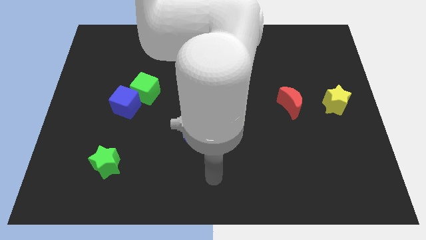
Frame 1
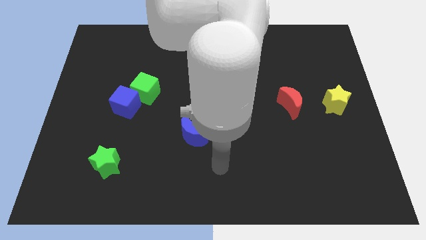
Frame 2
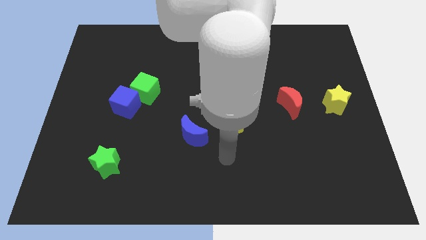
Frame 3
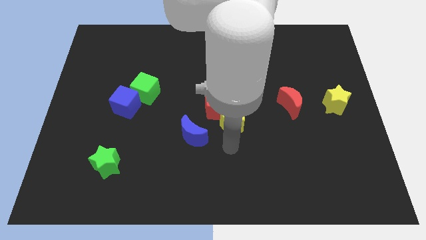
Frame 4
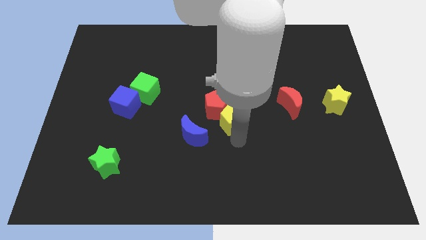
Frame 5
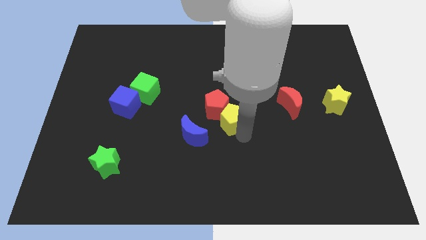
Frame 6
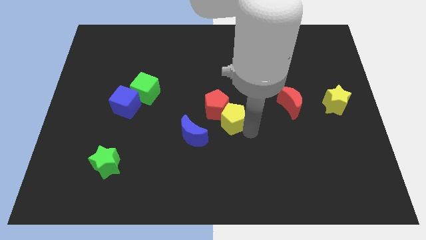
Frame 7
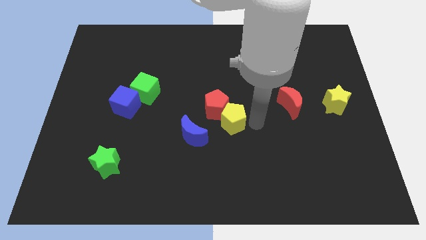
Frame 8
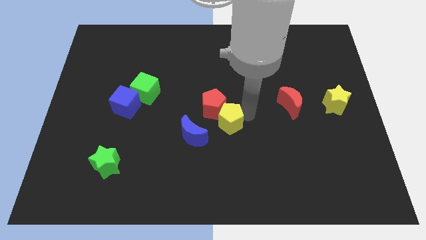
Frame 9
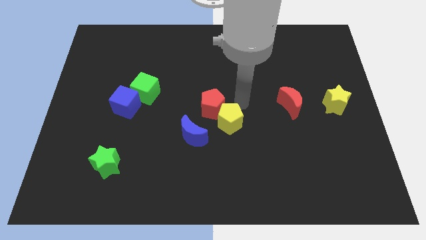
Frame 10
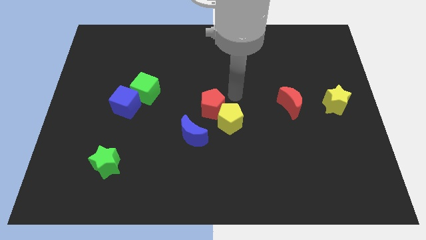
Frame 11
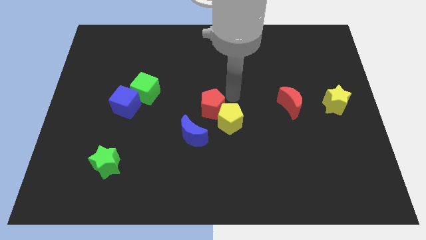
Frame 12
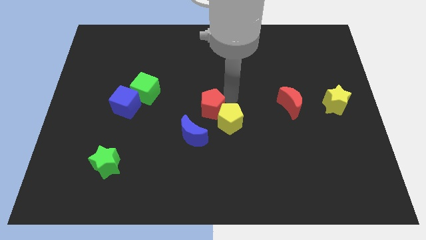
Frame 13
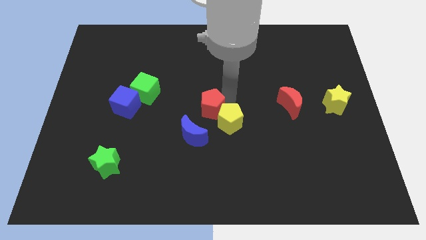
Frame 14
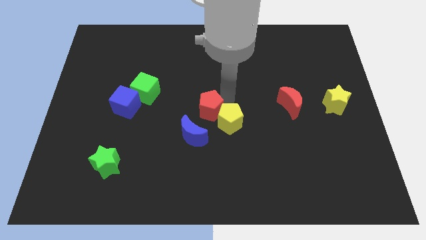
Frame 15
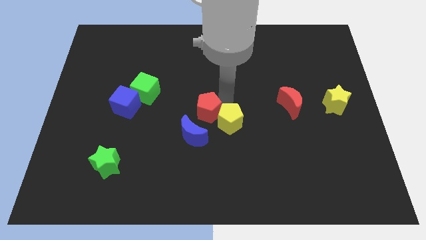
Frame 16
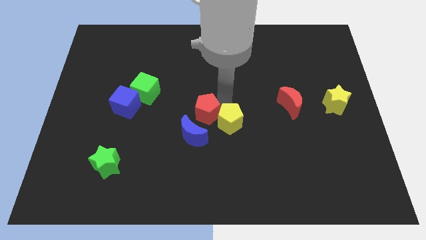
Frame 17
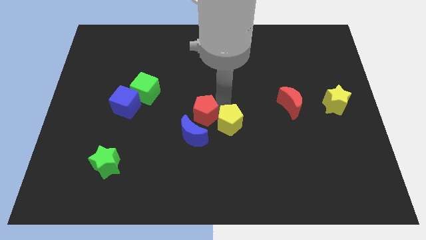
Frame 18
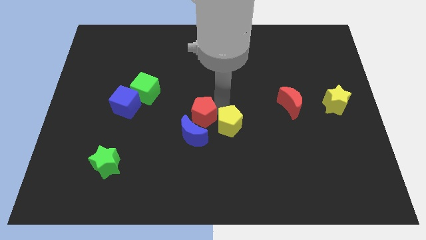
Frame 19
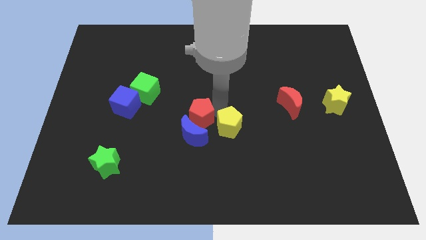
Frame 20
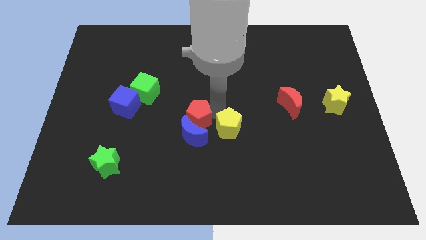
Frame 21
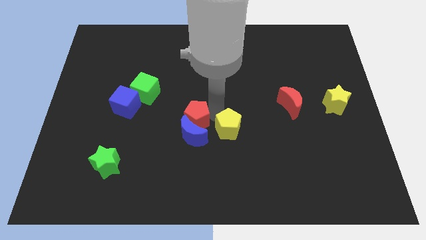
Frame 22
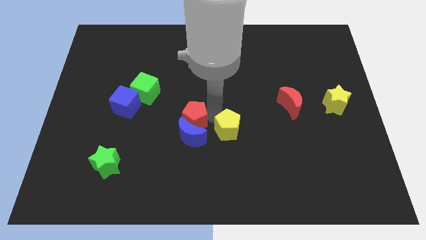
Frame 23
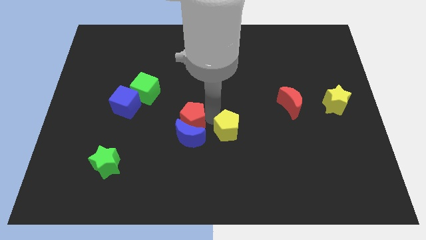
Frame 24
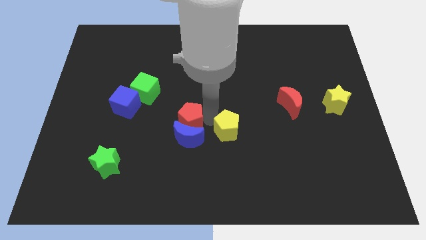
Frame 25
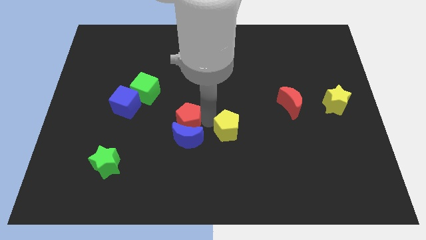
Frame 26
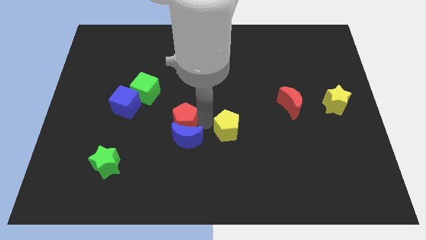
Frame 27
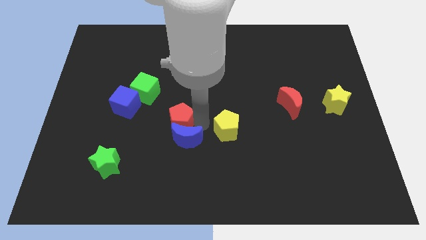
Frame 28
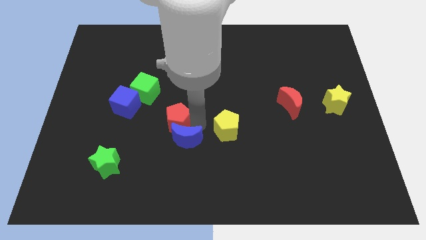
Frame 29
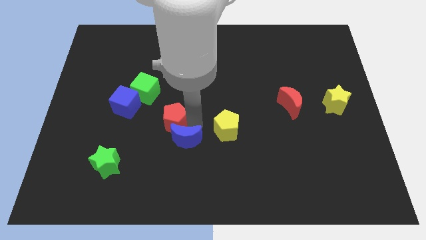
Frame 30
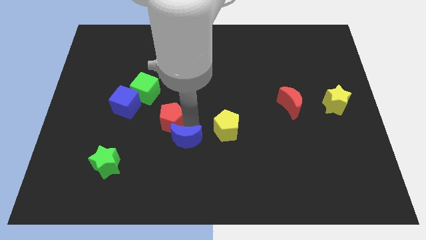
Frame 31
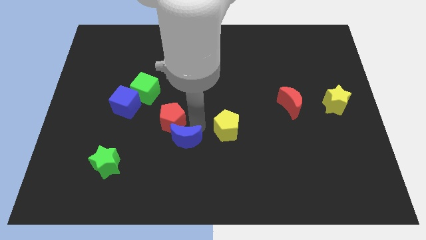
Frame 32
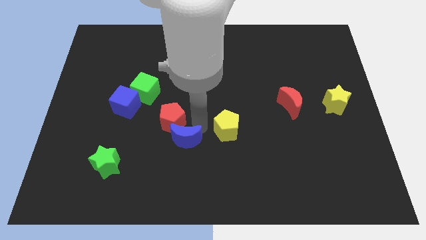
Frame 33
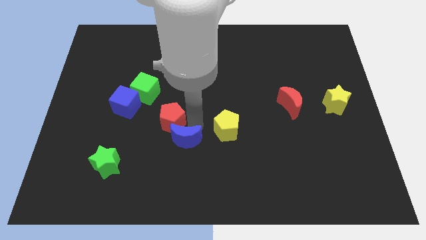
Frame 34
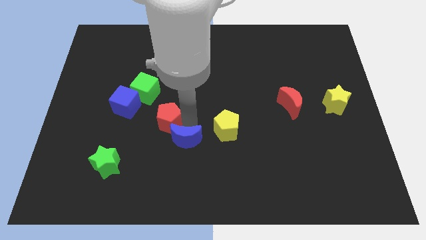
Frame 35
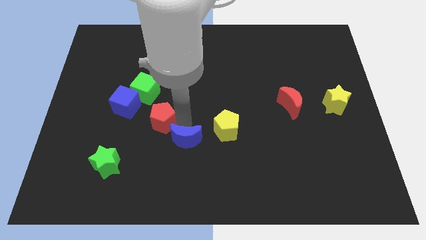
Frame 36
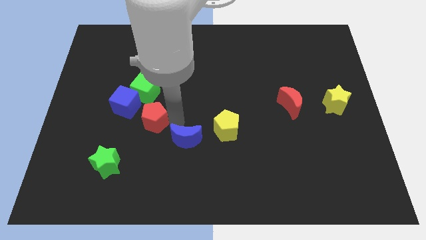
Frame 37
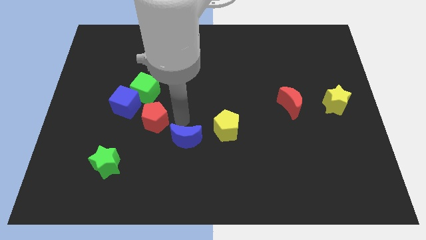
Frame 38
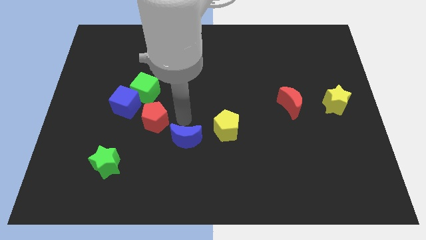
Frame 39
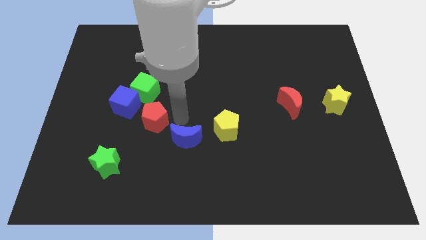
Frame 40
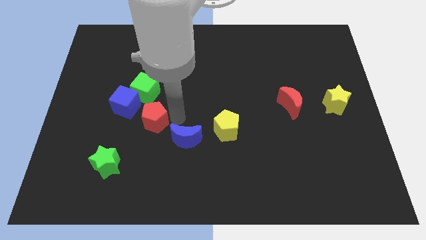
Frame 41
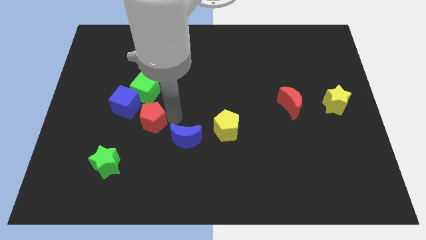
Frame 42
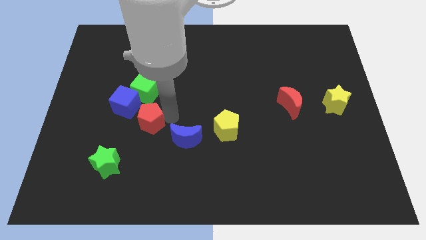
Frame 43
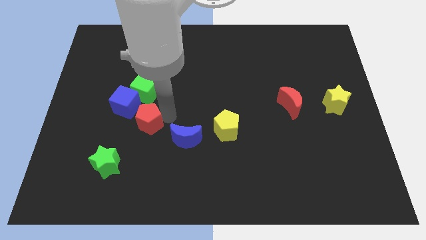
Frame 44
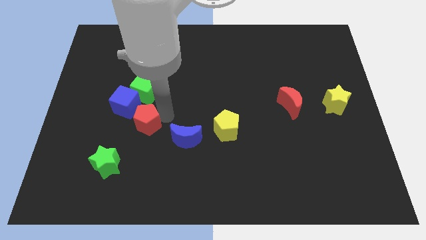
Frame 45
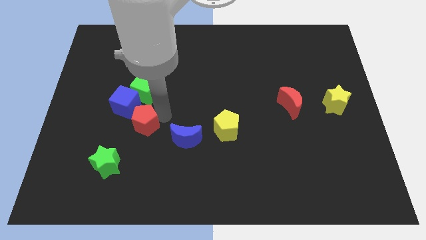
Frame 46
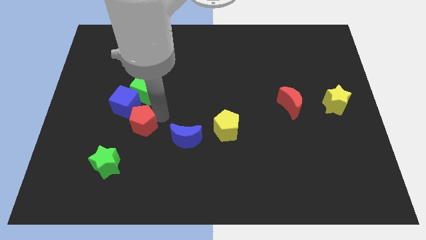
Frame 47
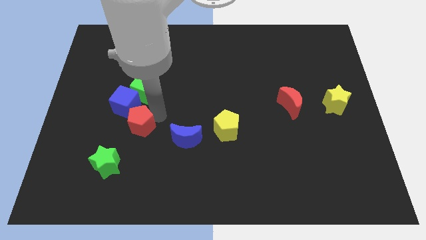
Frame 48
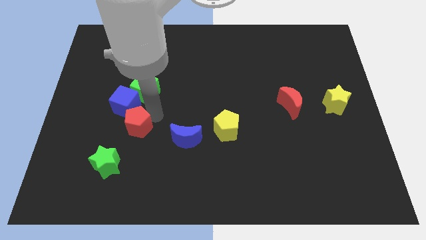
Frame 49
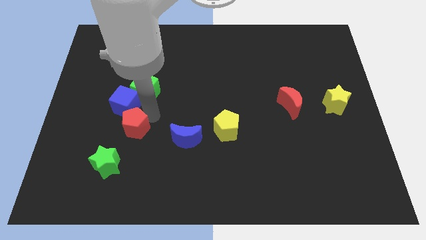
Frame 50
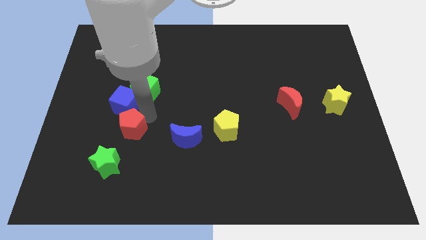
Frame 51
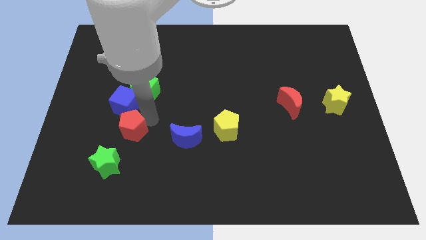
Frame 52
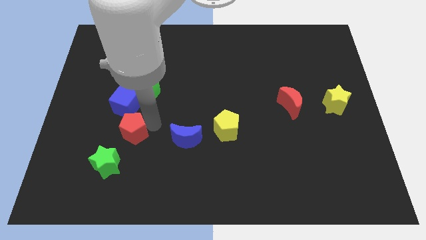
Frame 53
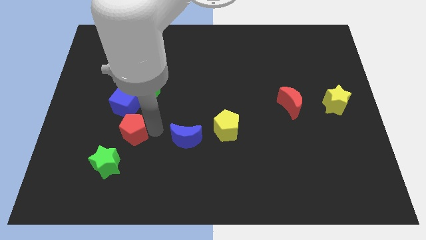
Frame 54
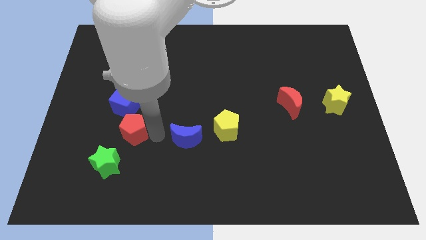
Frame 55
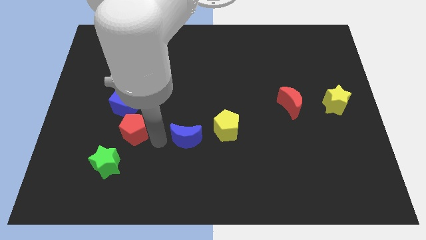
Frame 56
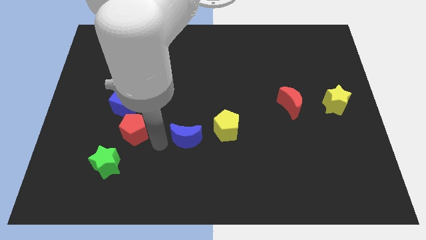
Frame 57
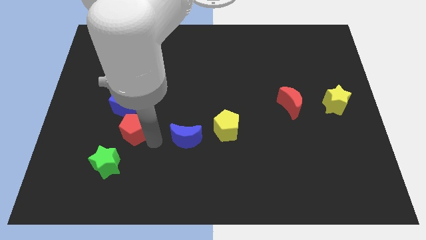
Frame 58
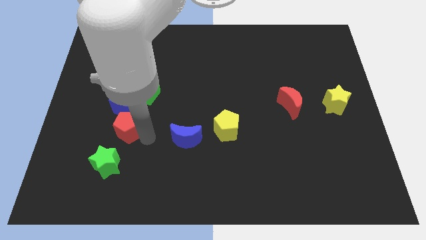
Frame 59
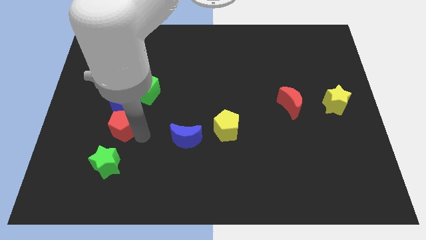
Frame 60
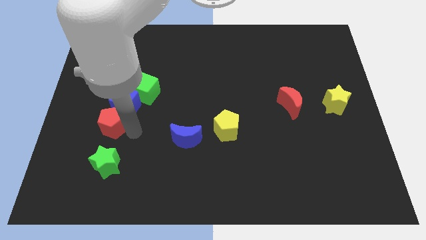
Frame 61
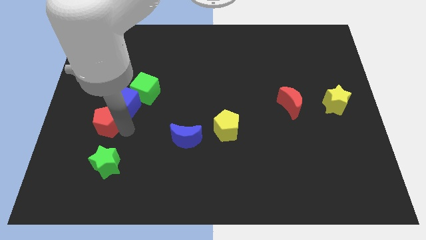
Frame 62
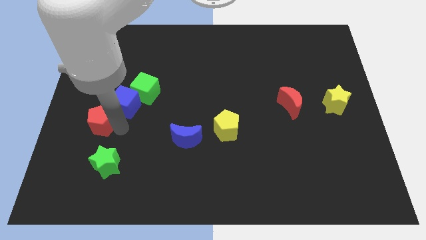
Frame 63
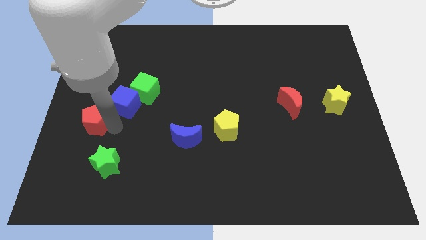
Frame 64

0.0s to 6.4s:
put the red pentagon to the left side

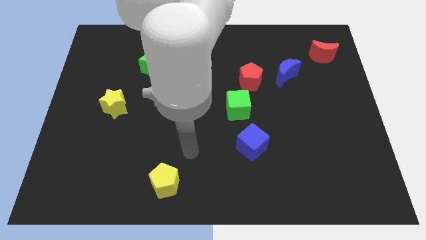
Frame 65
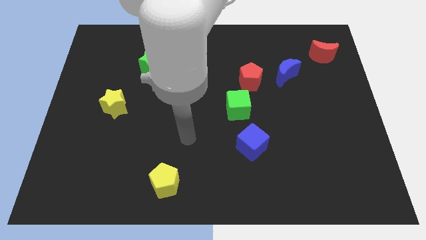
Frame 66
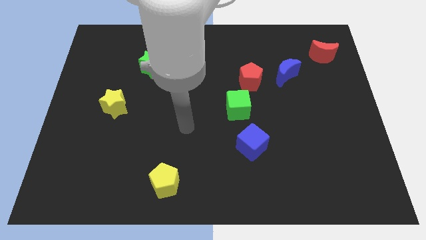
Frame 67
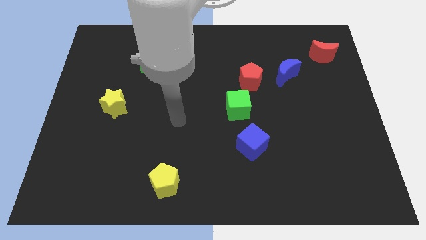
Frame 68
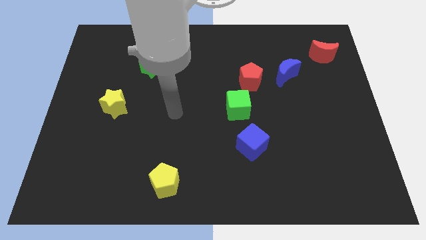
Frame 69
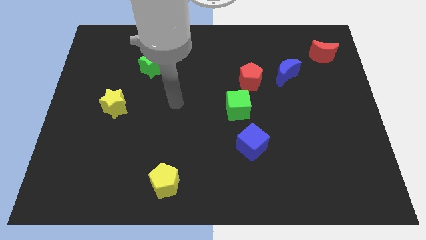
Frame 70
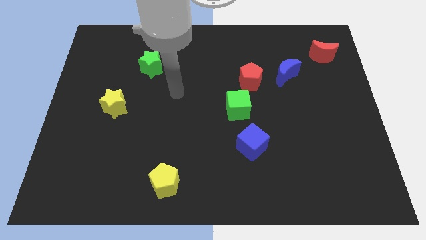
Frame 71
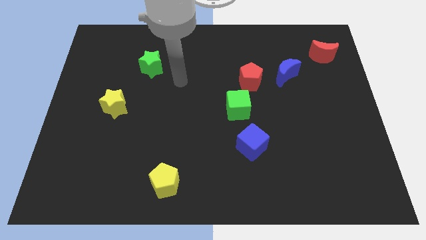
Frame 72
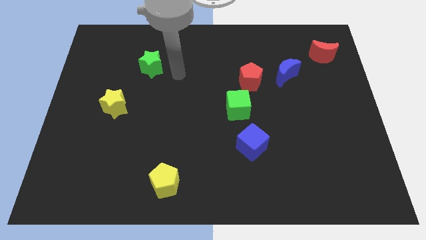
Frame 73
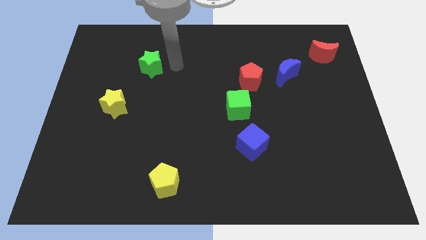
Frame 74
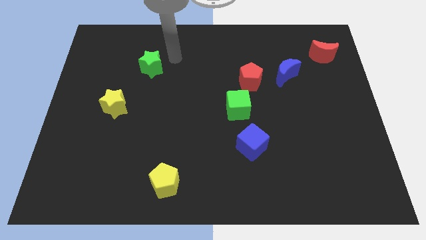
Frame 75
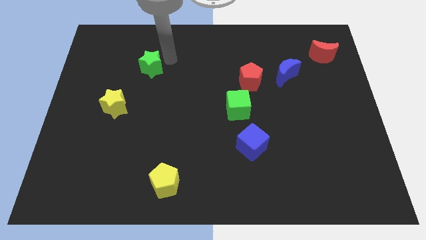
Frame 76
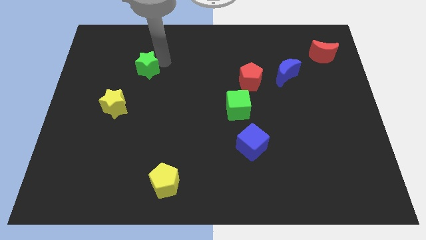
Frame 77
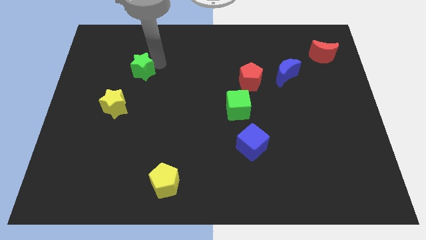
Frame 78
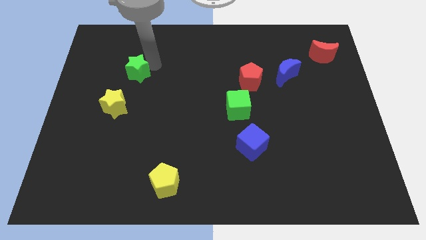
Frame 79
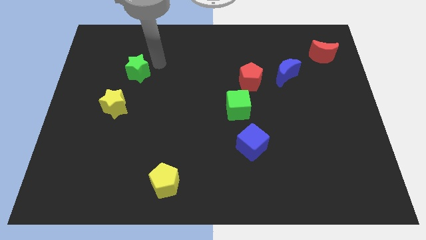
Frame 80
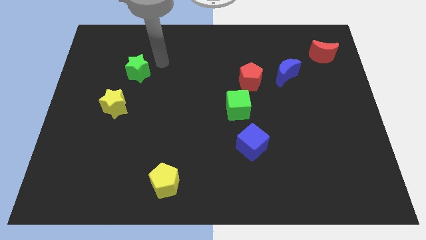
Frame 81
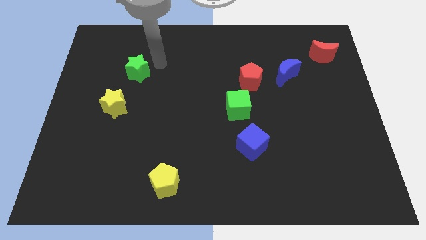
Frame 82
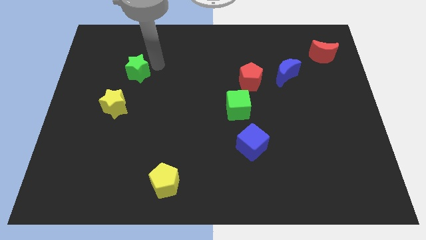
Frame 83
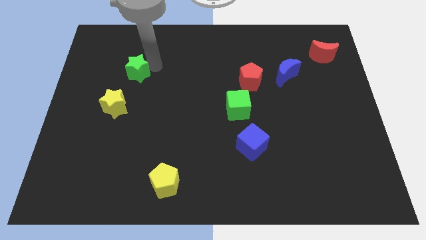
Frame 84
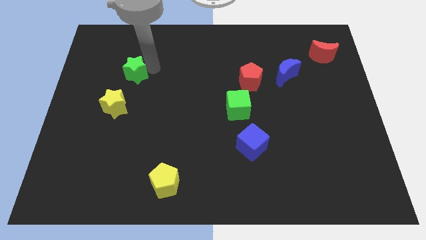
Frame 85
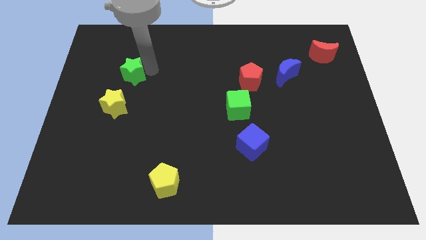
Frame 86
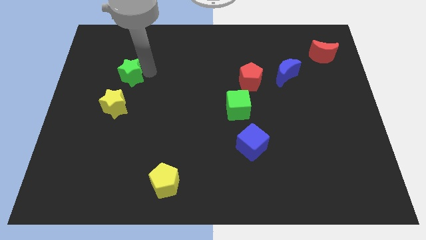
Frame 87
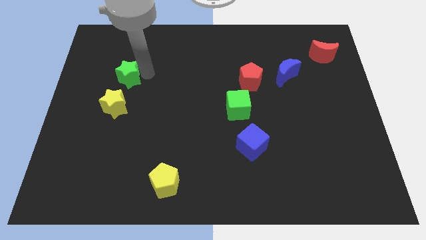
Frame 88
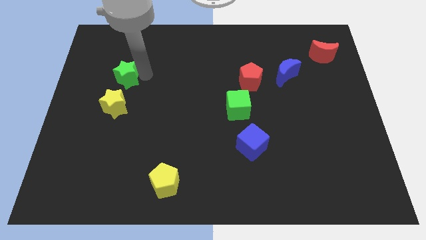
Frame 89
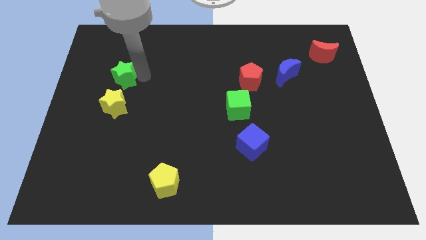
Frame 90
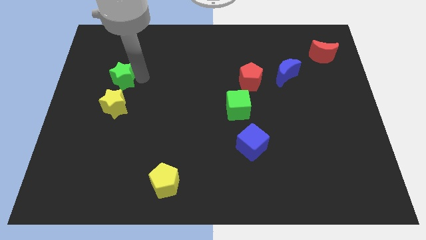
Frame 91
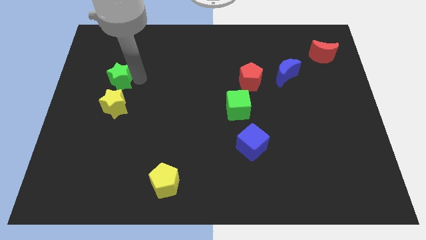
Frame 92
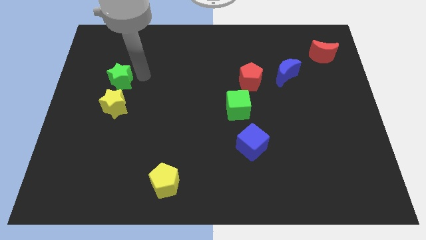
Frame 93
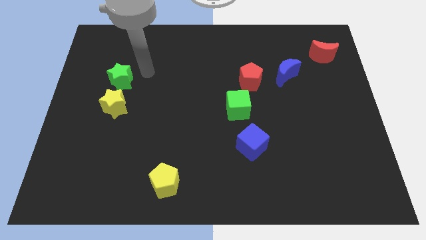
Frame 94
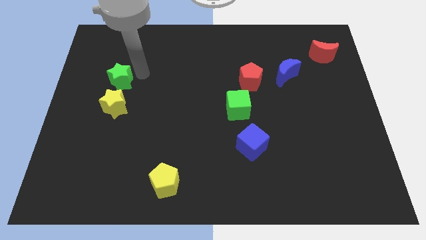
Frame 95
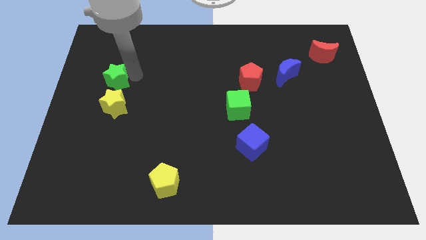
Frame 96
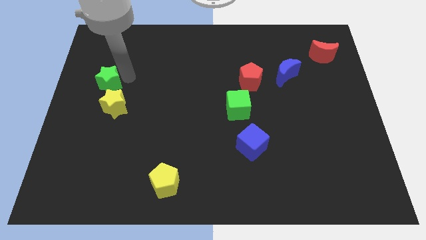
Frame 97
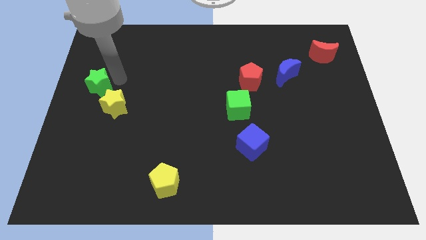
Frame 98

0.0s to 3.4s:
push the green star to the left side
